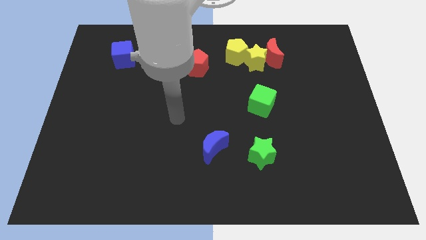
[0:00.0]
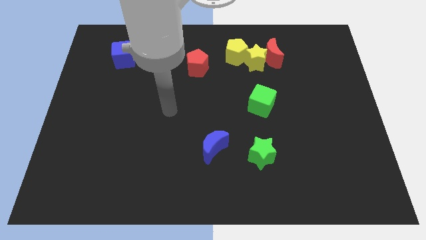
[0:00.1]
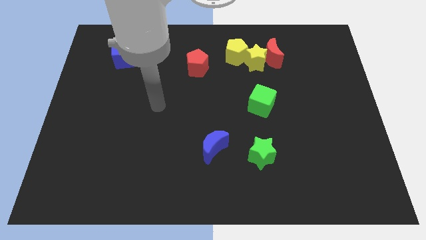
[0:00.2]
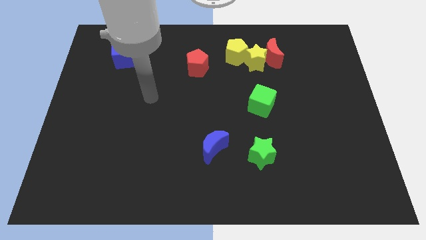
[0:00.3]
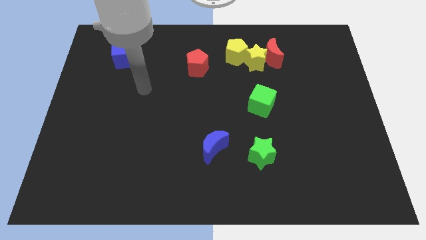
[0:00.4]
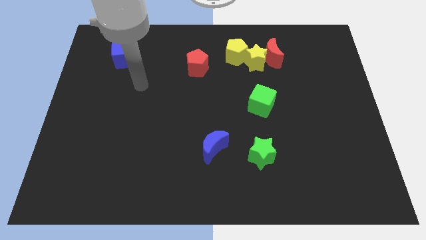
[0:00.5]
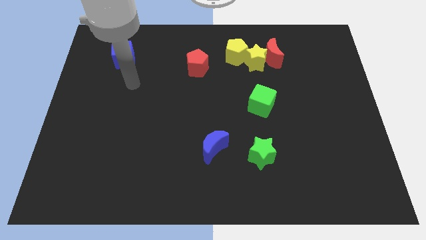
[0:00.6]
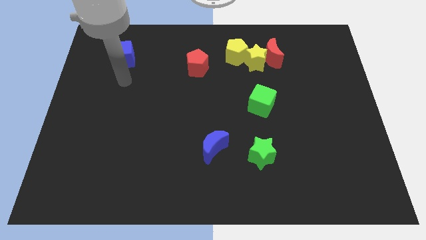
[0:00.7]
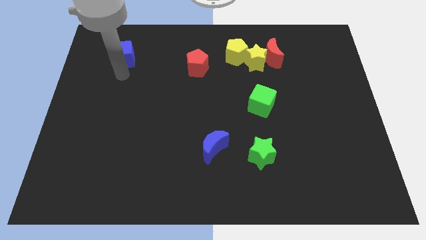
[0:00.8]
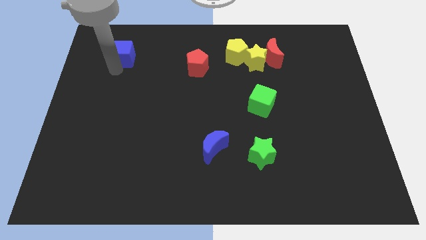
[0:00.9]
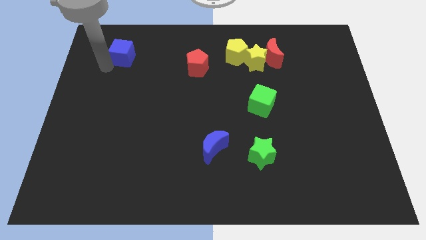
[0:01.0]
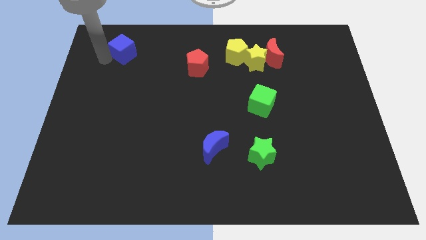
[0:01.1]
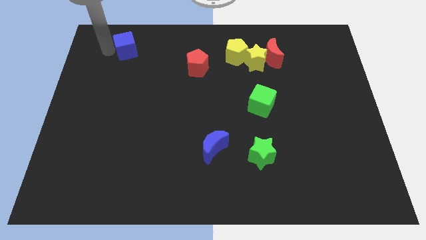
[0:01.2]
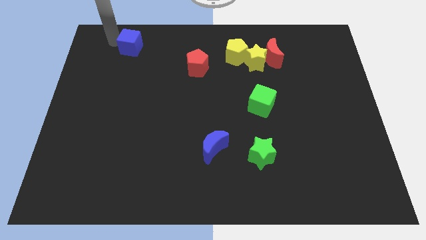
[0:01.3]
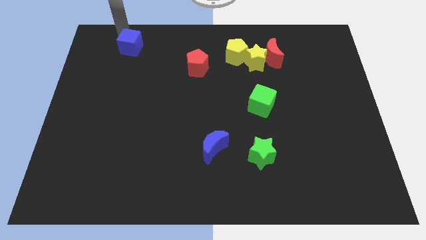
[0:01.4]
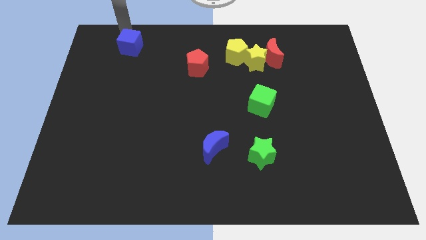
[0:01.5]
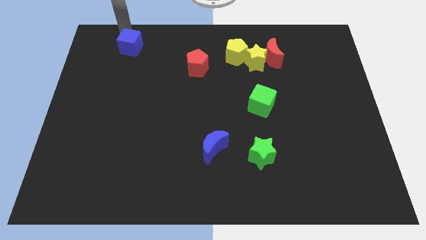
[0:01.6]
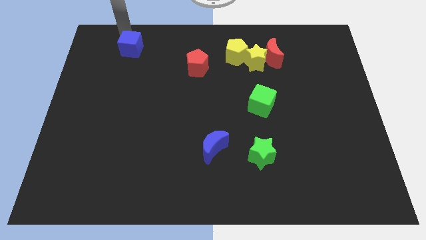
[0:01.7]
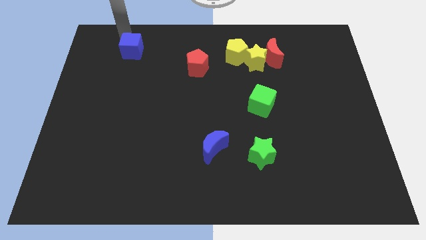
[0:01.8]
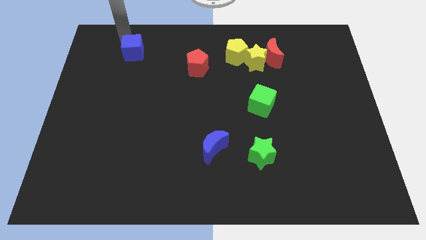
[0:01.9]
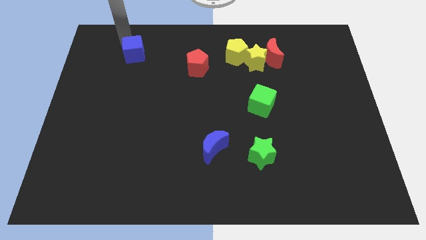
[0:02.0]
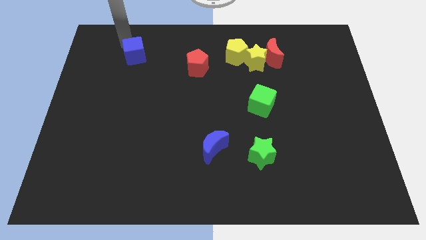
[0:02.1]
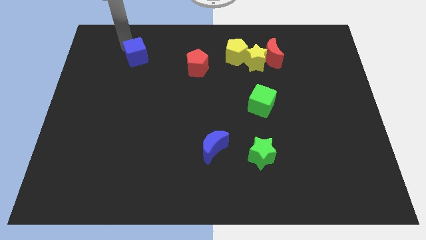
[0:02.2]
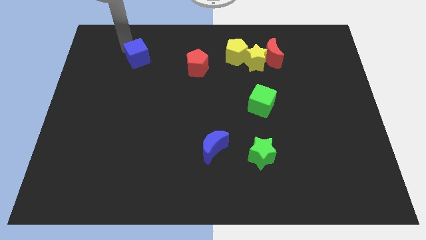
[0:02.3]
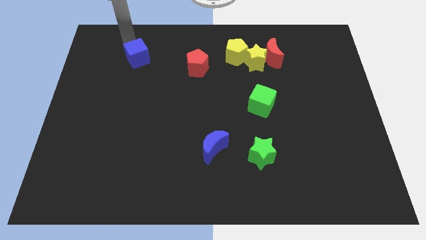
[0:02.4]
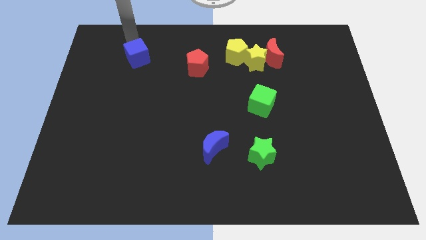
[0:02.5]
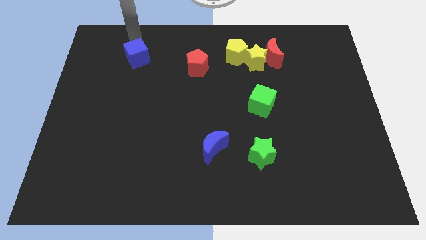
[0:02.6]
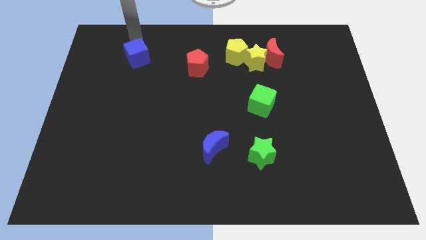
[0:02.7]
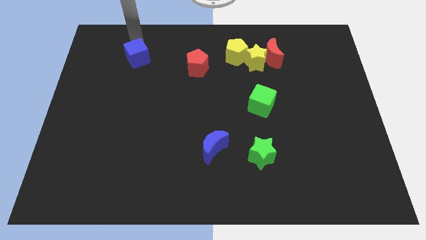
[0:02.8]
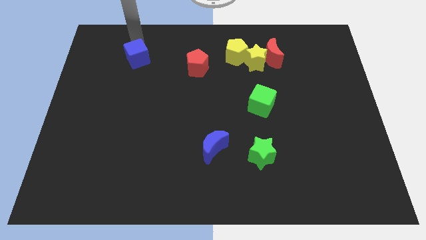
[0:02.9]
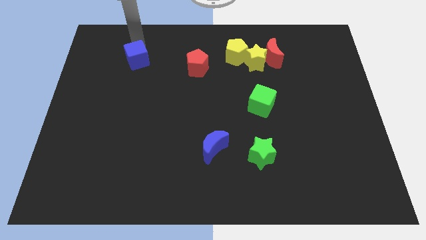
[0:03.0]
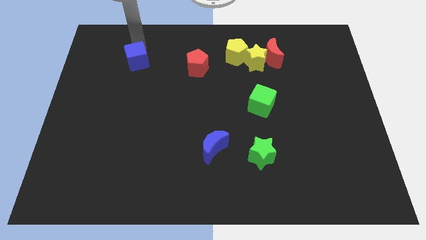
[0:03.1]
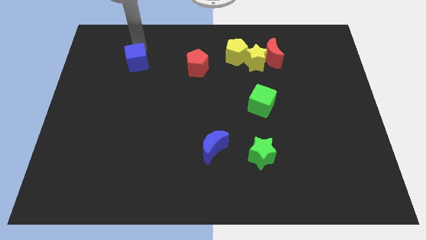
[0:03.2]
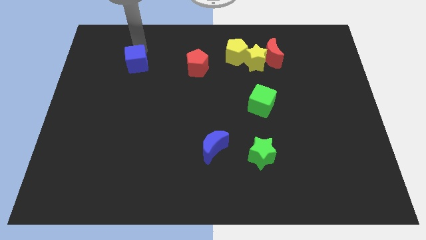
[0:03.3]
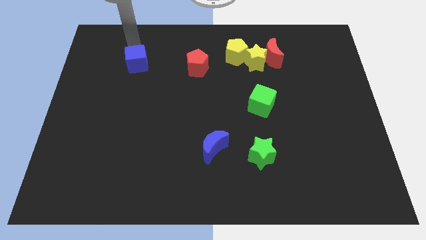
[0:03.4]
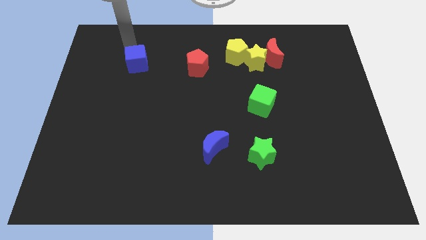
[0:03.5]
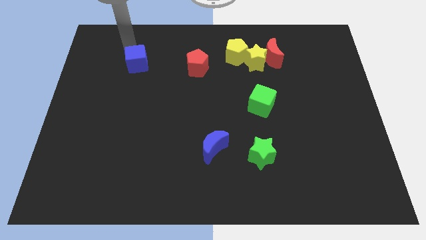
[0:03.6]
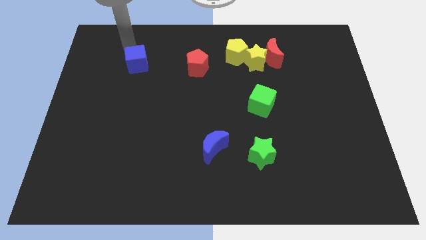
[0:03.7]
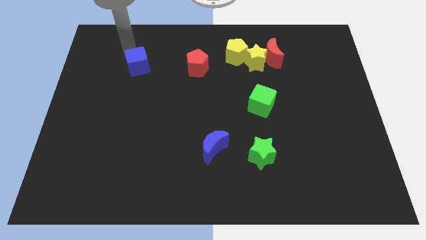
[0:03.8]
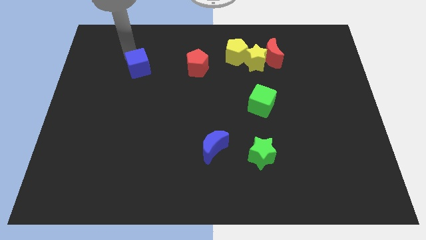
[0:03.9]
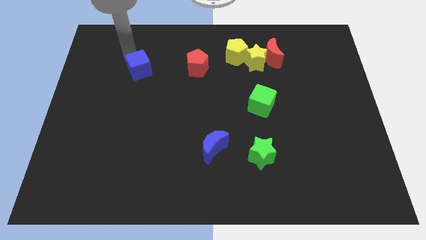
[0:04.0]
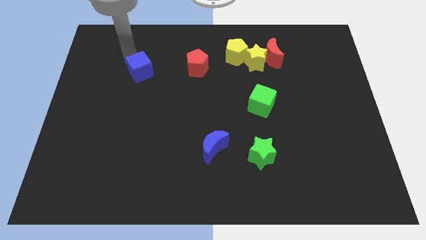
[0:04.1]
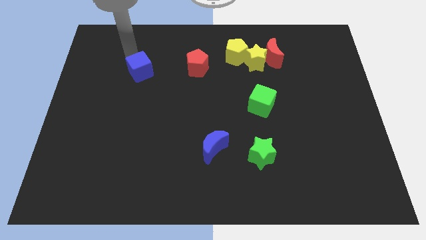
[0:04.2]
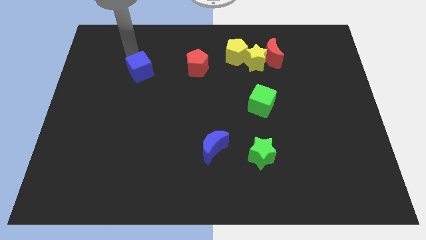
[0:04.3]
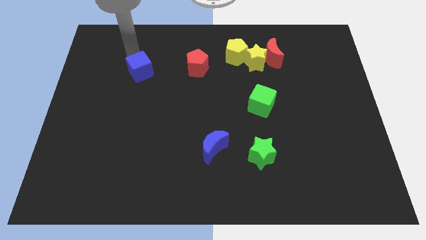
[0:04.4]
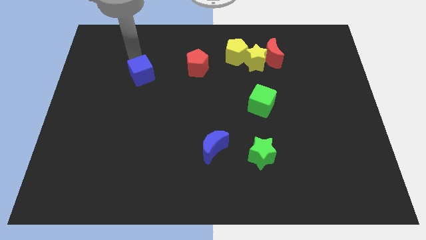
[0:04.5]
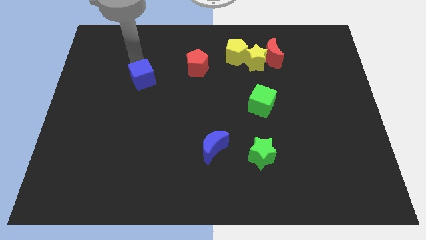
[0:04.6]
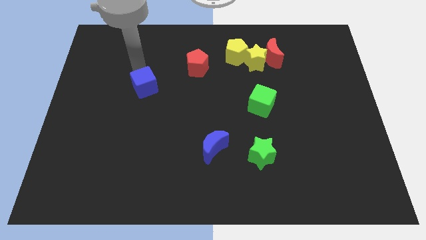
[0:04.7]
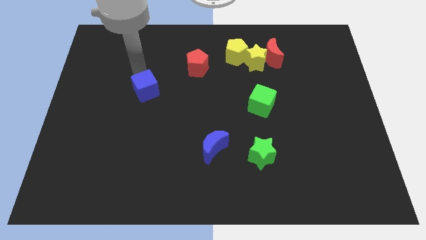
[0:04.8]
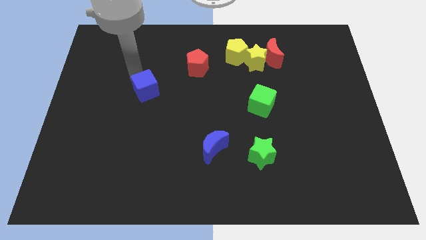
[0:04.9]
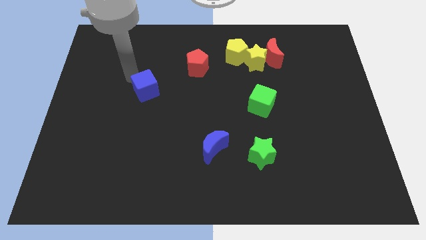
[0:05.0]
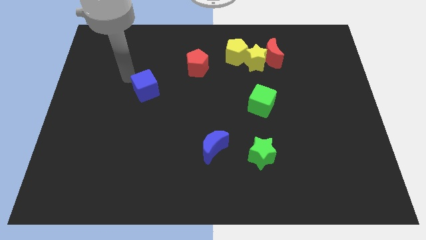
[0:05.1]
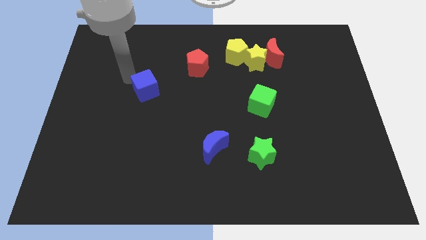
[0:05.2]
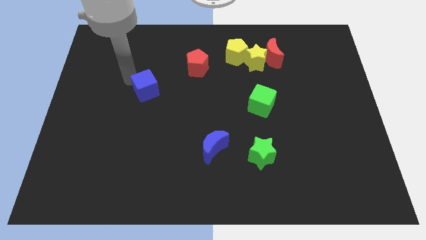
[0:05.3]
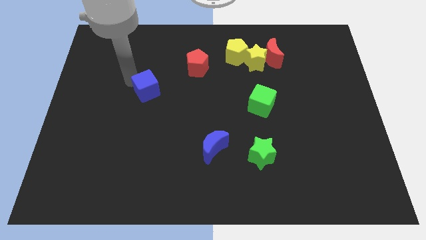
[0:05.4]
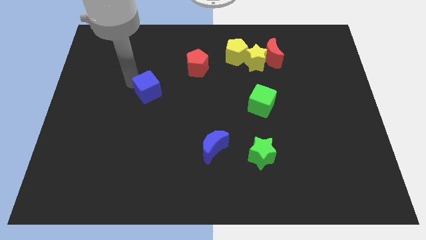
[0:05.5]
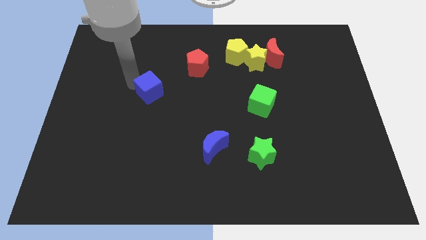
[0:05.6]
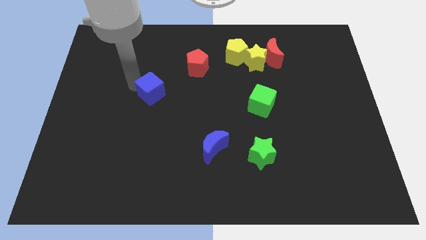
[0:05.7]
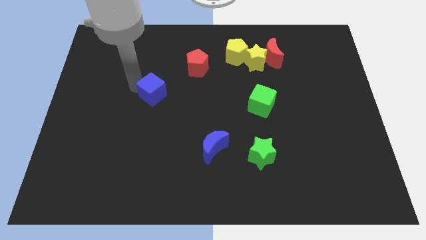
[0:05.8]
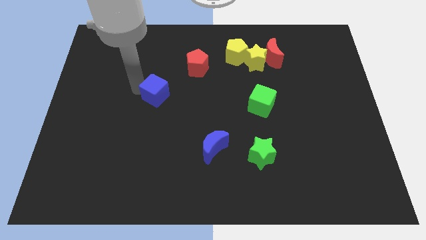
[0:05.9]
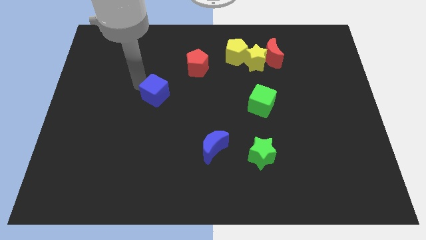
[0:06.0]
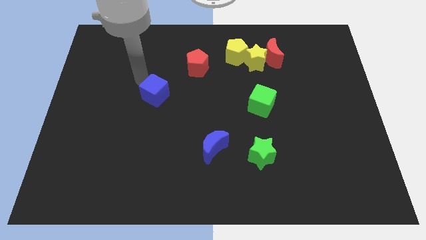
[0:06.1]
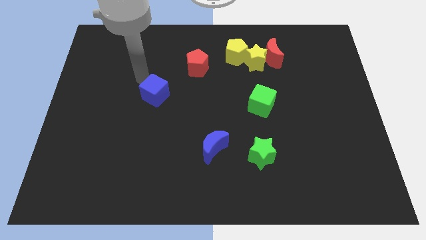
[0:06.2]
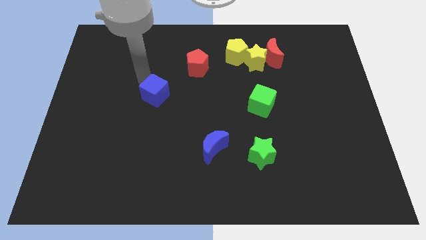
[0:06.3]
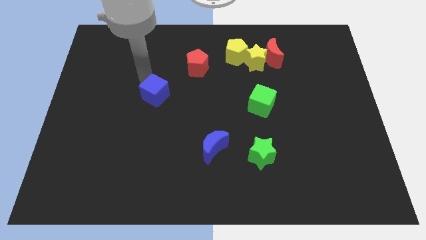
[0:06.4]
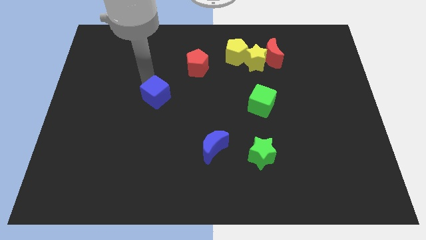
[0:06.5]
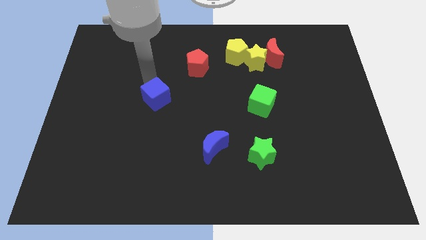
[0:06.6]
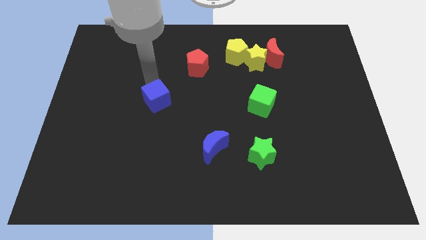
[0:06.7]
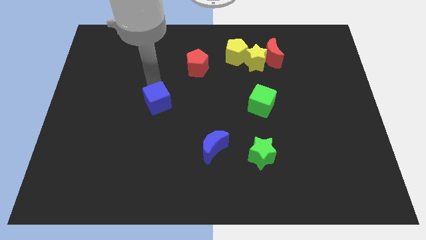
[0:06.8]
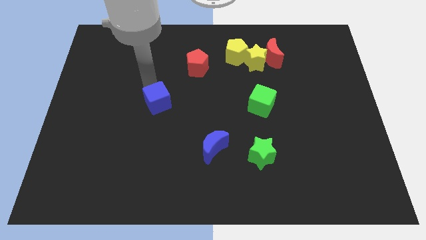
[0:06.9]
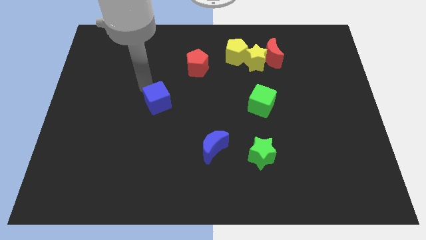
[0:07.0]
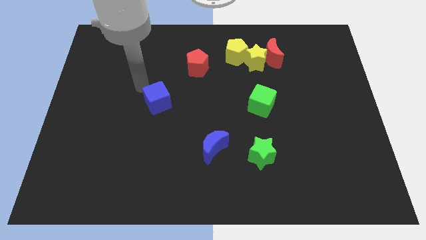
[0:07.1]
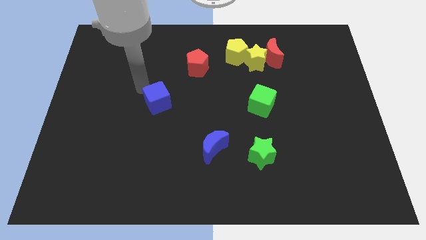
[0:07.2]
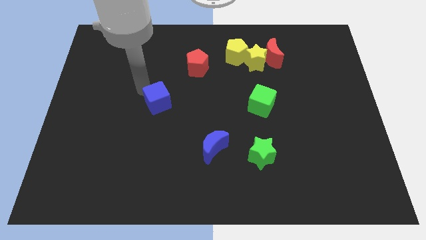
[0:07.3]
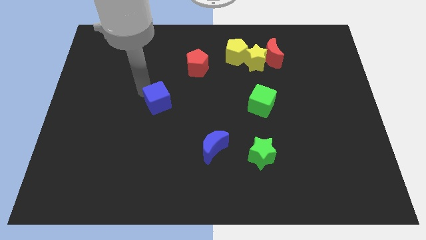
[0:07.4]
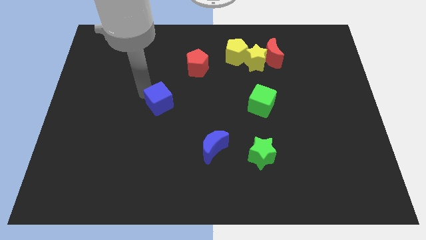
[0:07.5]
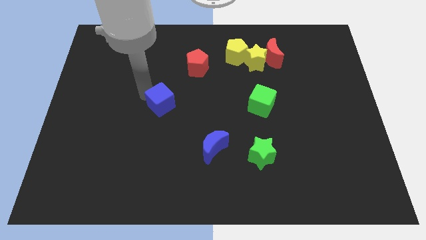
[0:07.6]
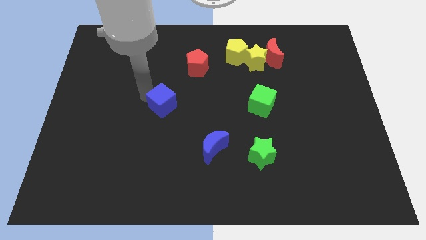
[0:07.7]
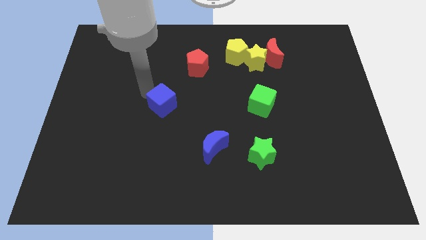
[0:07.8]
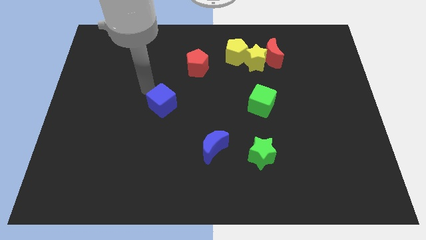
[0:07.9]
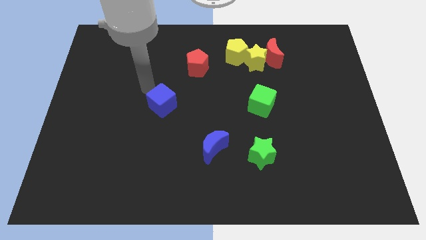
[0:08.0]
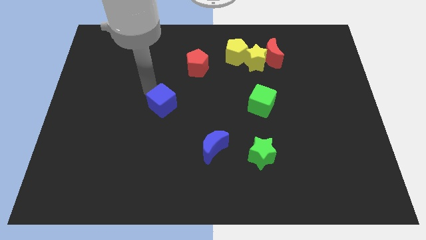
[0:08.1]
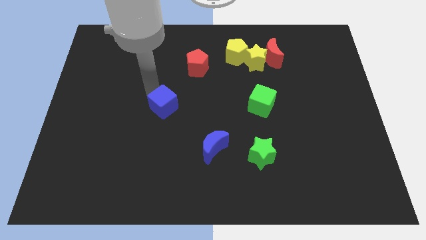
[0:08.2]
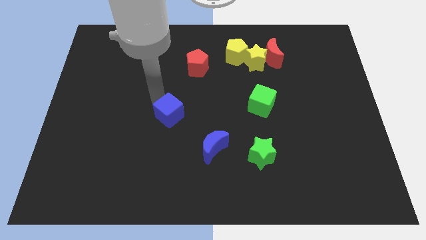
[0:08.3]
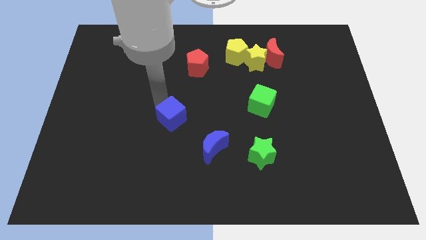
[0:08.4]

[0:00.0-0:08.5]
slide the blue cube to the top left side of the blue moon
